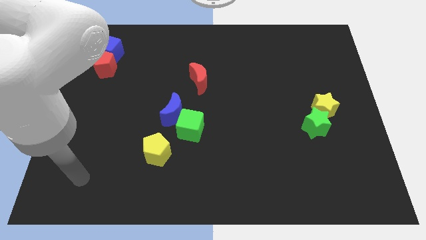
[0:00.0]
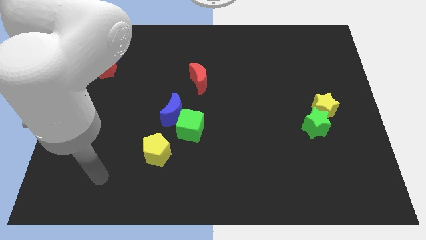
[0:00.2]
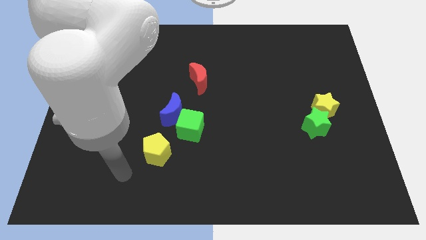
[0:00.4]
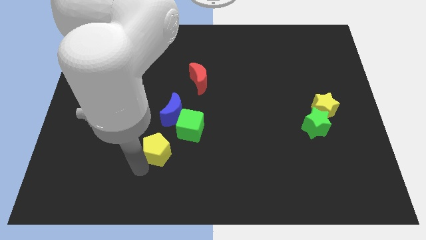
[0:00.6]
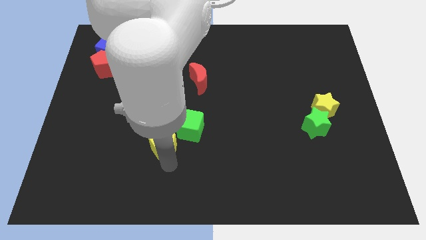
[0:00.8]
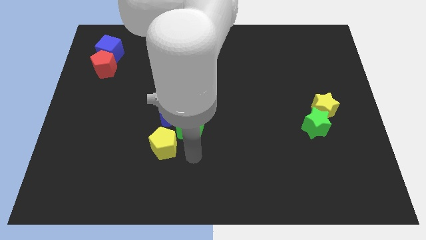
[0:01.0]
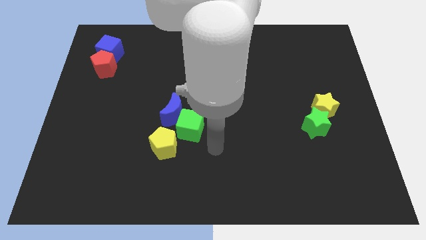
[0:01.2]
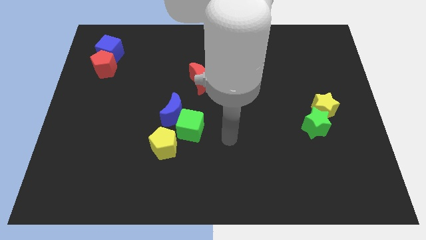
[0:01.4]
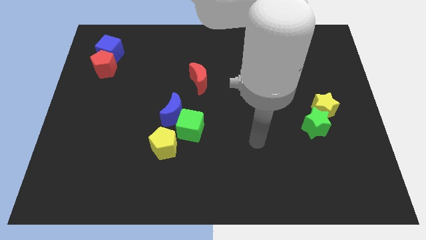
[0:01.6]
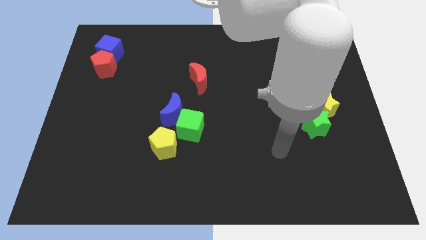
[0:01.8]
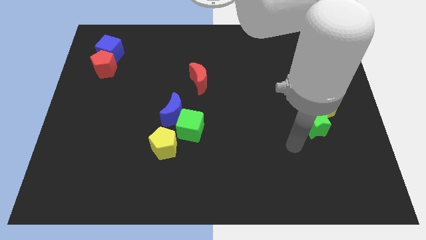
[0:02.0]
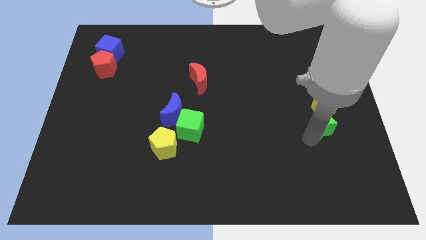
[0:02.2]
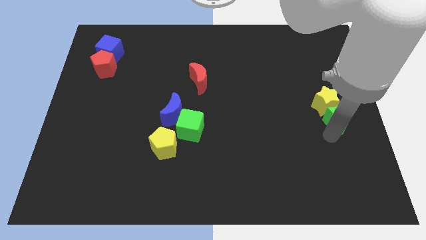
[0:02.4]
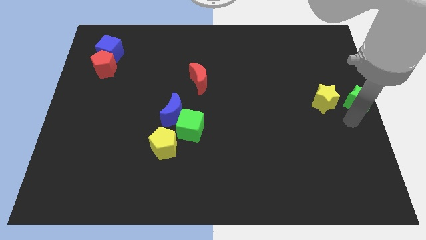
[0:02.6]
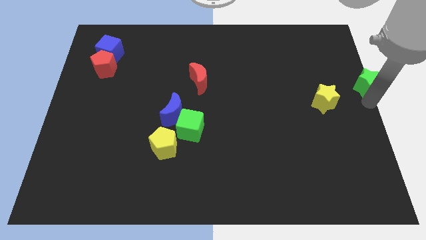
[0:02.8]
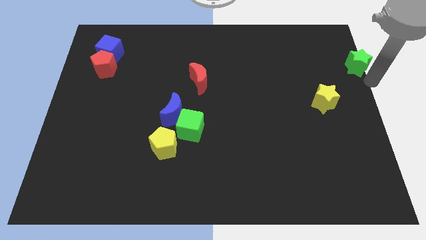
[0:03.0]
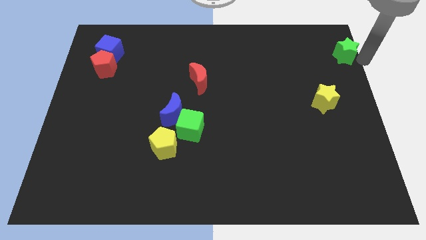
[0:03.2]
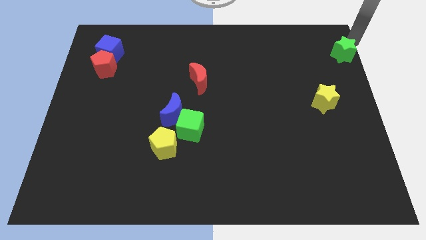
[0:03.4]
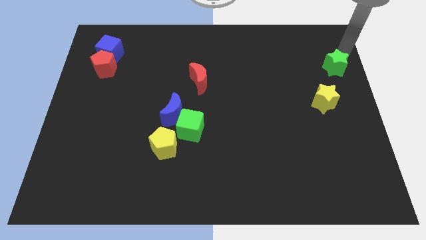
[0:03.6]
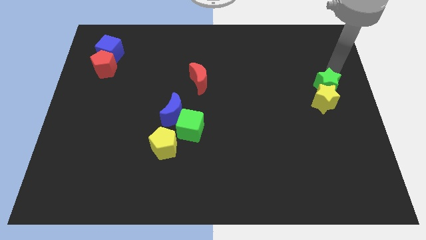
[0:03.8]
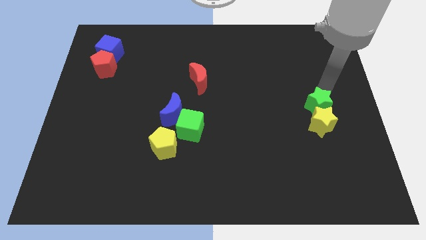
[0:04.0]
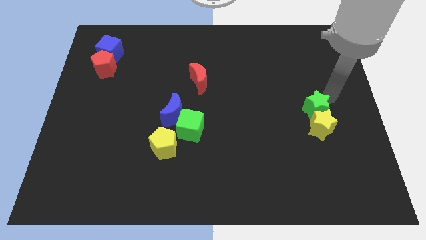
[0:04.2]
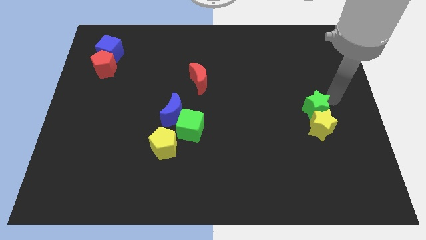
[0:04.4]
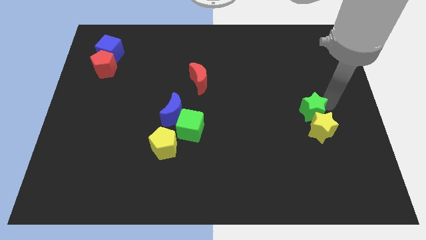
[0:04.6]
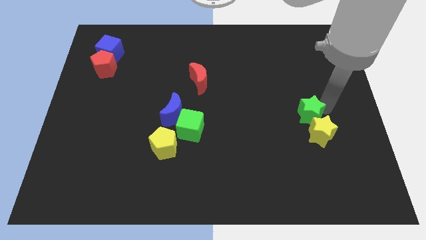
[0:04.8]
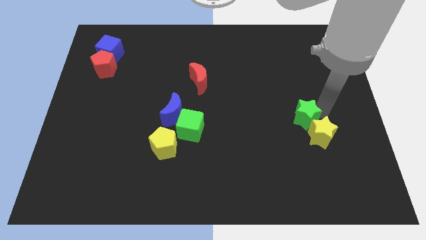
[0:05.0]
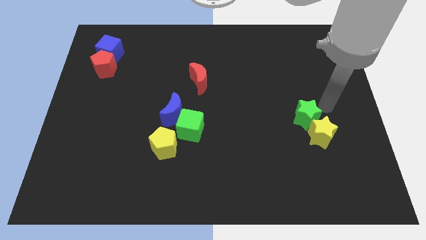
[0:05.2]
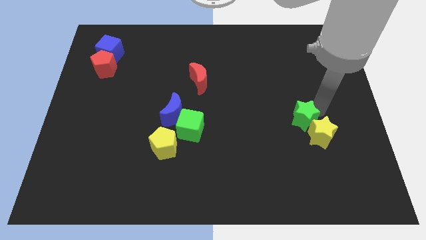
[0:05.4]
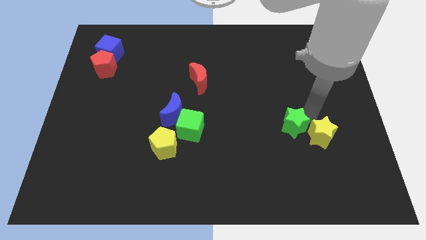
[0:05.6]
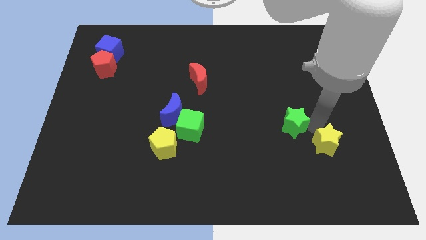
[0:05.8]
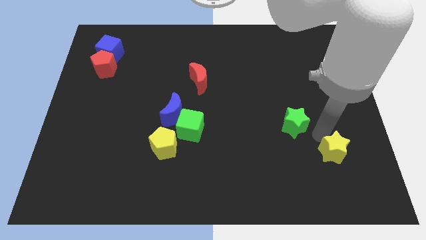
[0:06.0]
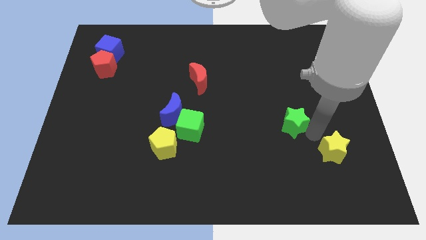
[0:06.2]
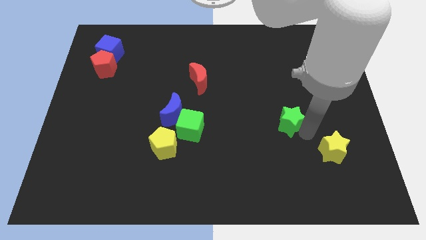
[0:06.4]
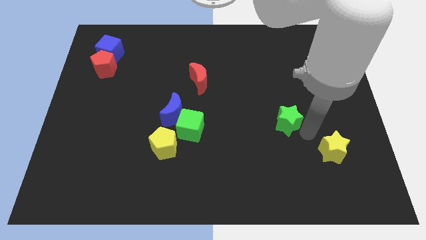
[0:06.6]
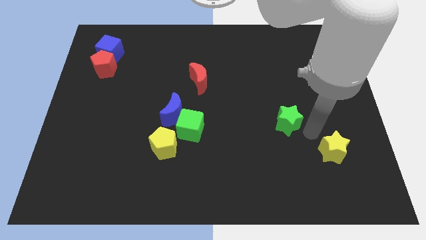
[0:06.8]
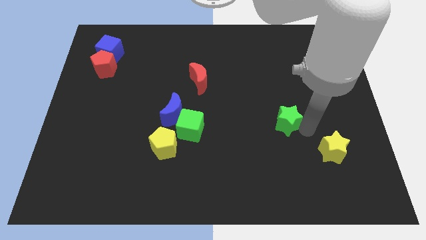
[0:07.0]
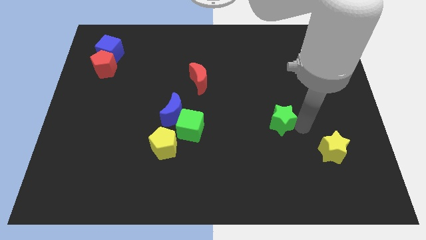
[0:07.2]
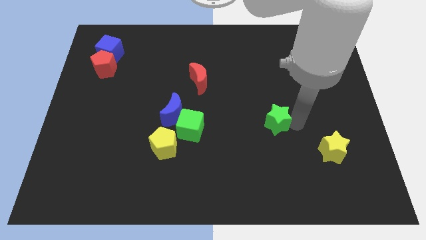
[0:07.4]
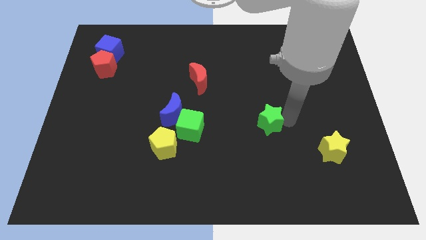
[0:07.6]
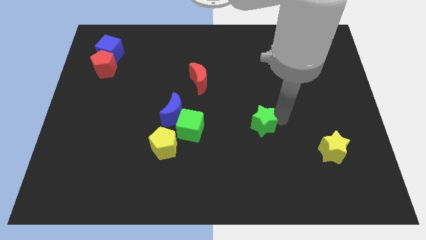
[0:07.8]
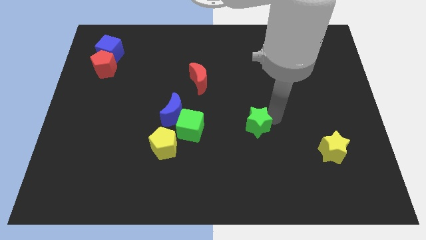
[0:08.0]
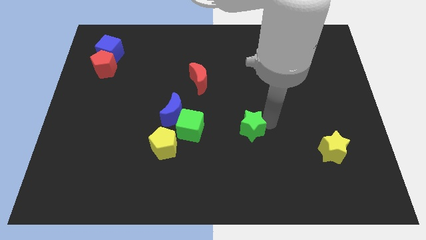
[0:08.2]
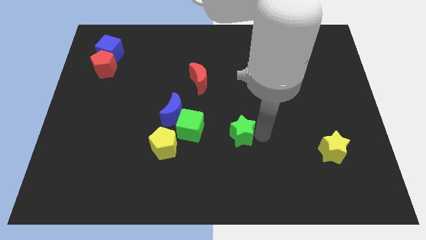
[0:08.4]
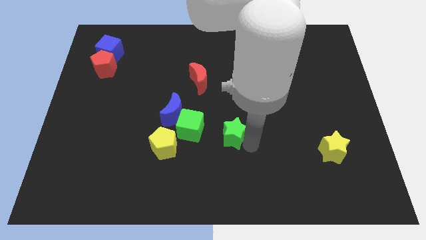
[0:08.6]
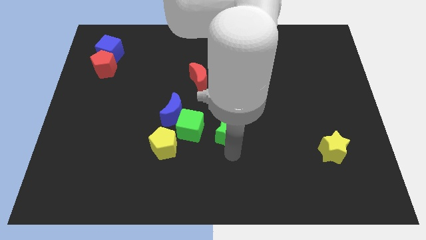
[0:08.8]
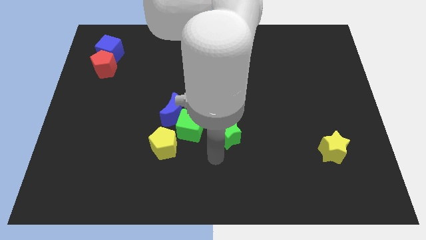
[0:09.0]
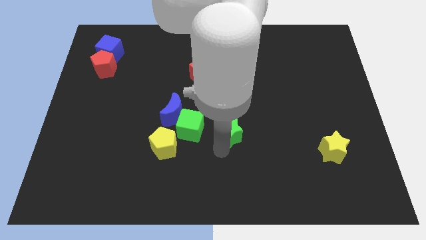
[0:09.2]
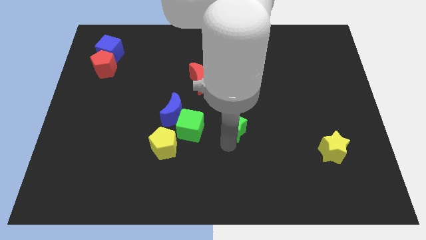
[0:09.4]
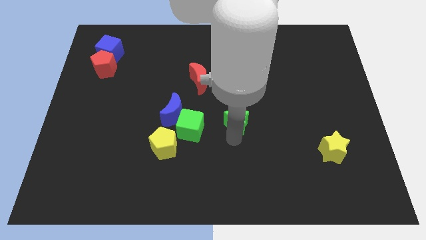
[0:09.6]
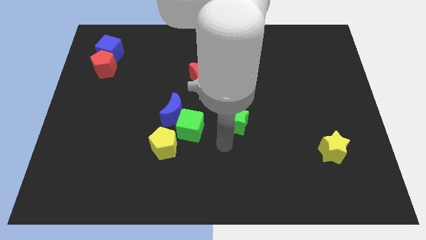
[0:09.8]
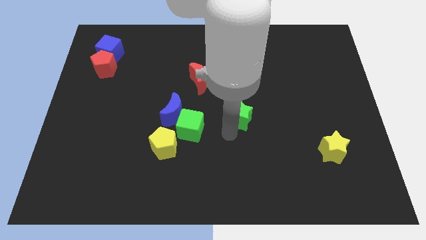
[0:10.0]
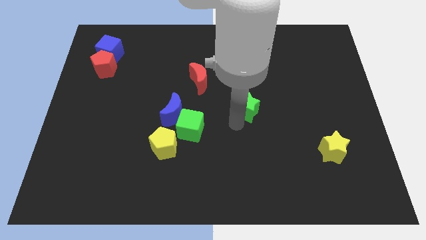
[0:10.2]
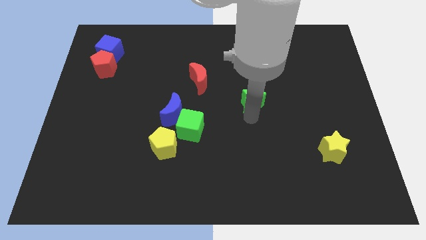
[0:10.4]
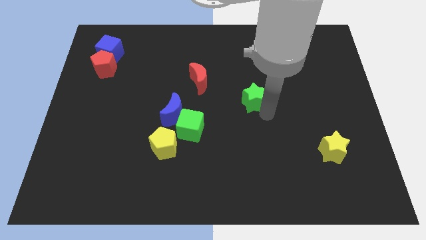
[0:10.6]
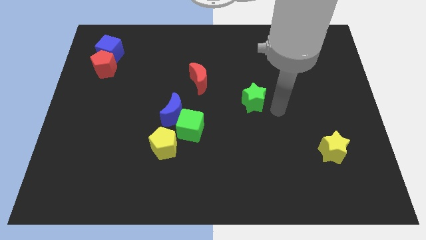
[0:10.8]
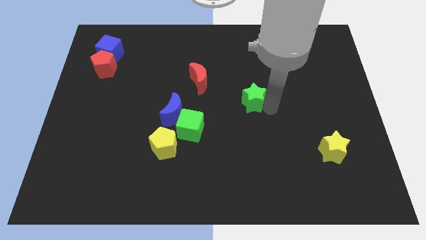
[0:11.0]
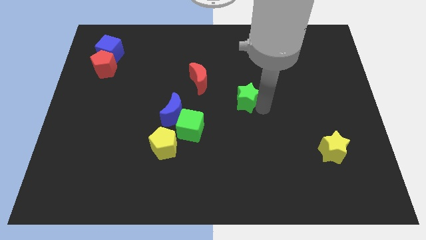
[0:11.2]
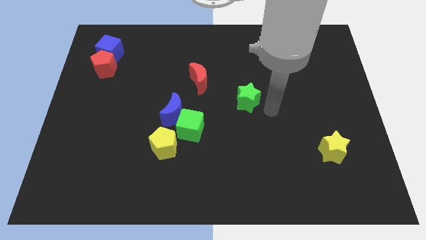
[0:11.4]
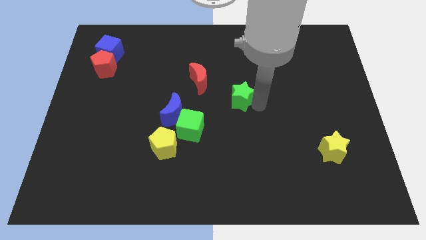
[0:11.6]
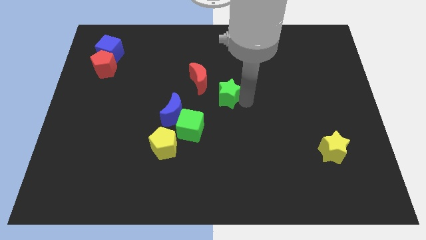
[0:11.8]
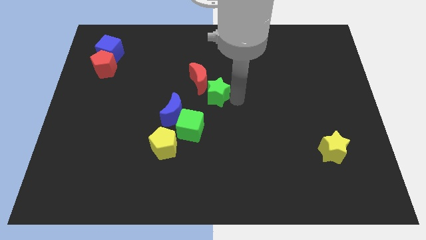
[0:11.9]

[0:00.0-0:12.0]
slide the green star to the red moon

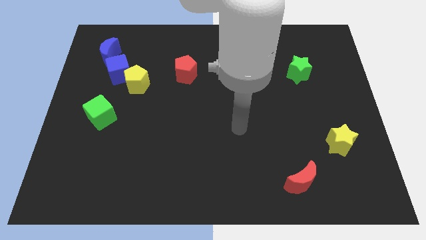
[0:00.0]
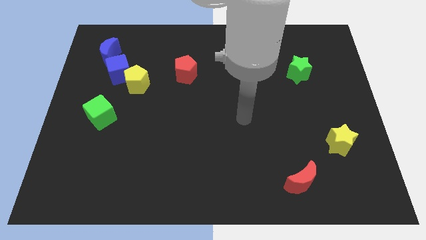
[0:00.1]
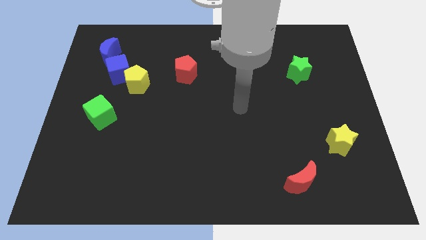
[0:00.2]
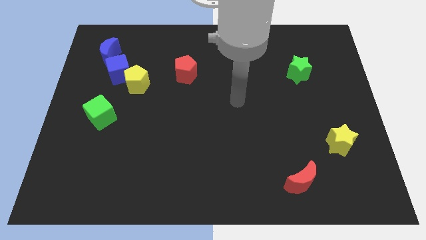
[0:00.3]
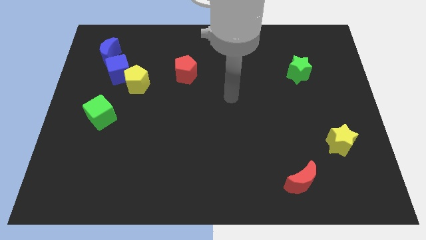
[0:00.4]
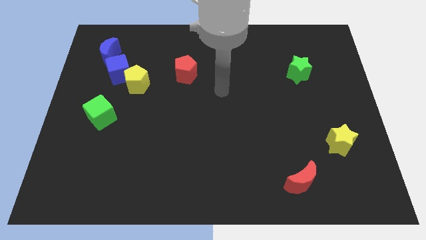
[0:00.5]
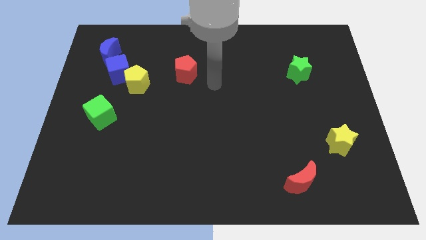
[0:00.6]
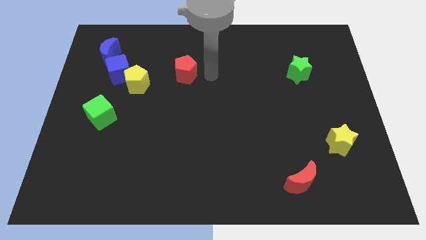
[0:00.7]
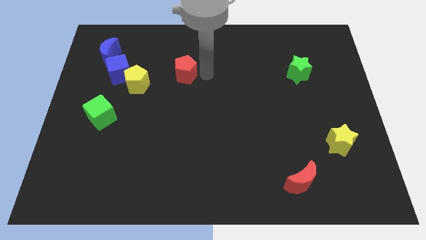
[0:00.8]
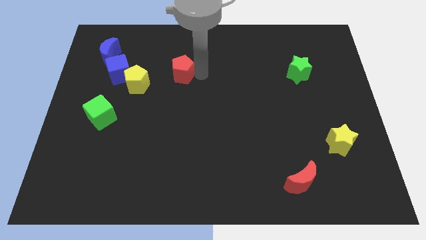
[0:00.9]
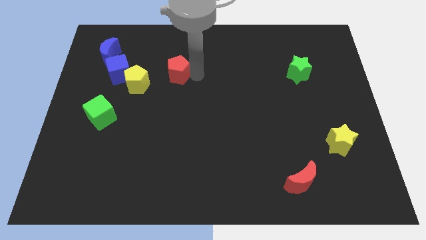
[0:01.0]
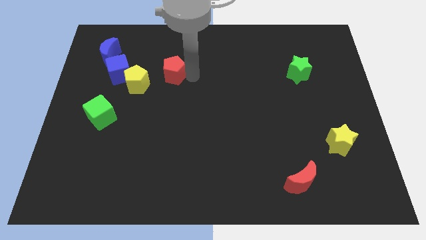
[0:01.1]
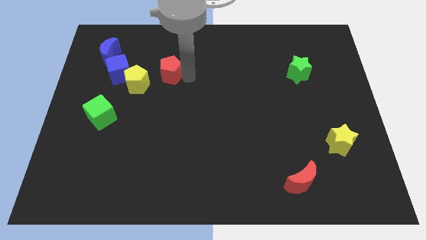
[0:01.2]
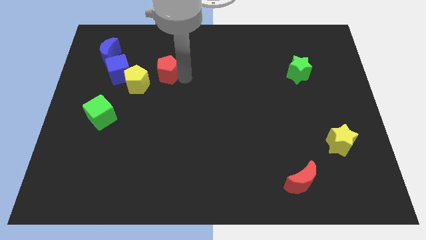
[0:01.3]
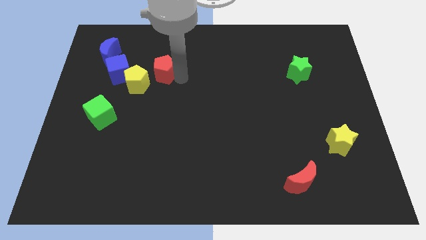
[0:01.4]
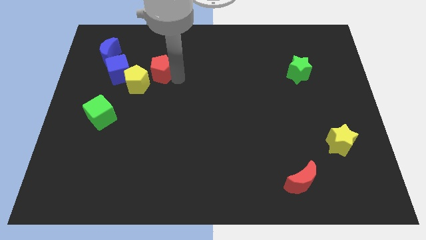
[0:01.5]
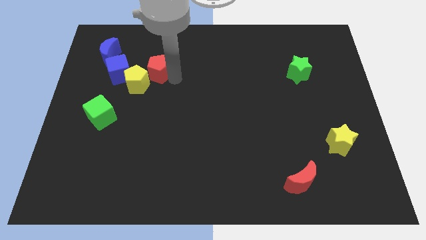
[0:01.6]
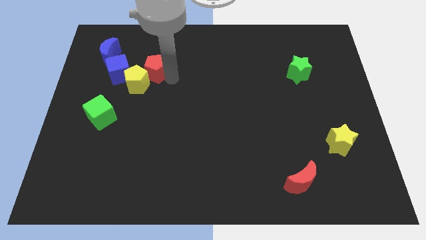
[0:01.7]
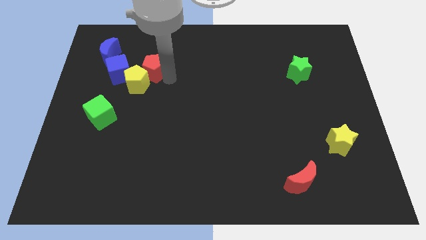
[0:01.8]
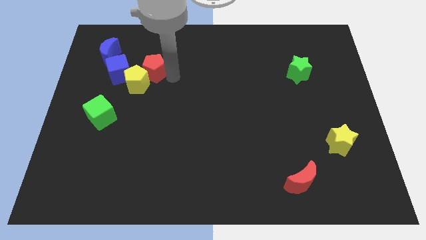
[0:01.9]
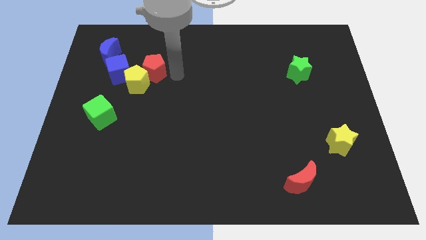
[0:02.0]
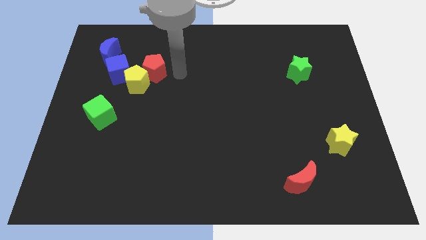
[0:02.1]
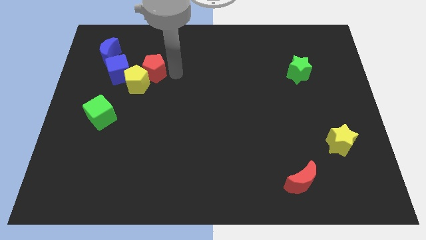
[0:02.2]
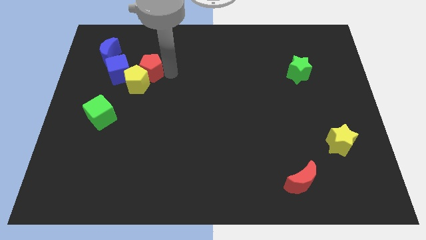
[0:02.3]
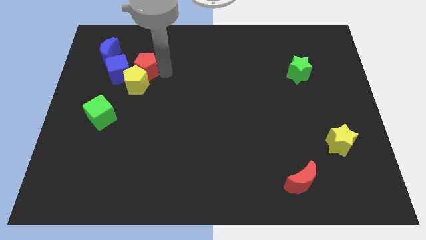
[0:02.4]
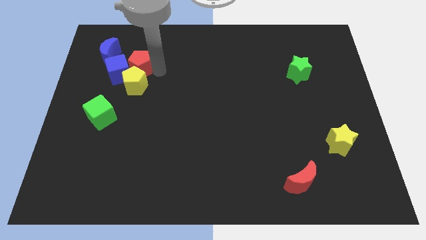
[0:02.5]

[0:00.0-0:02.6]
push the red pentagon to the blue cube
